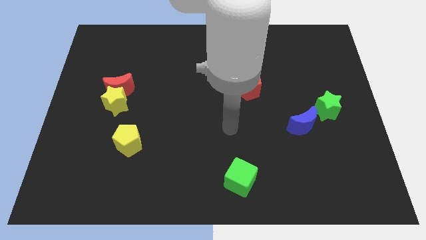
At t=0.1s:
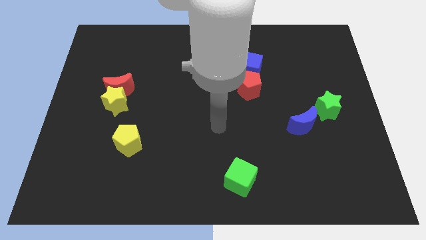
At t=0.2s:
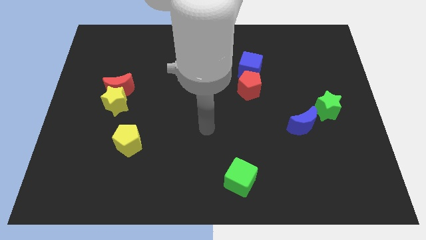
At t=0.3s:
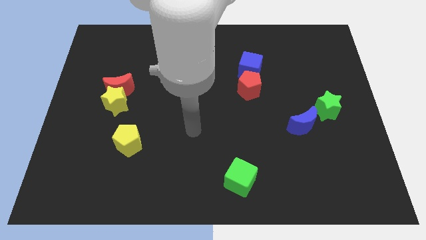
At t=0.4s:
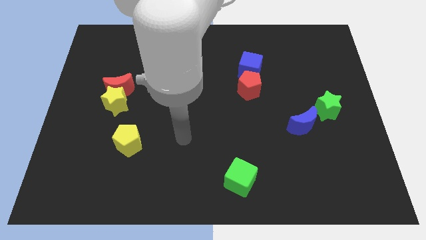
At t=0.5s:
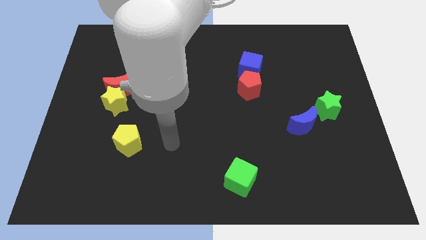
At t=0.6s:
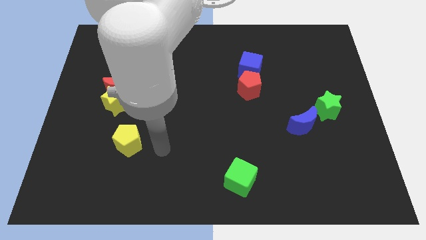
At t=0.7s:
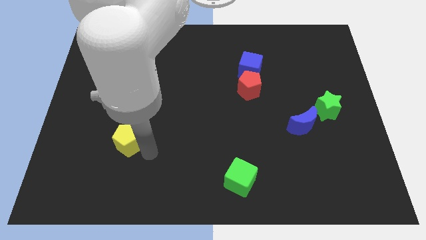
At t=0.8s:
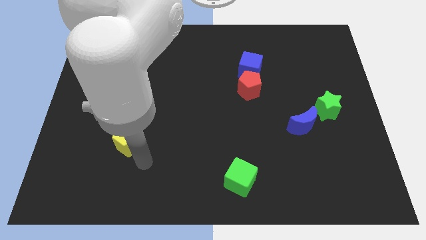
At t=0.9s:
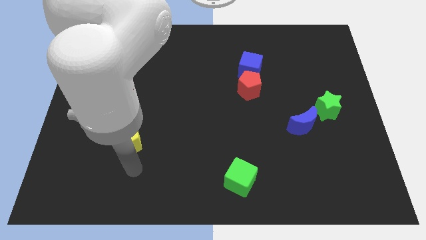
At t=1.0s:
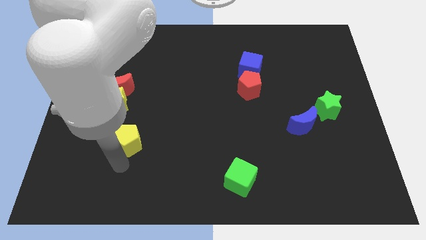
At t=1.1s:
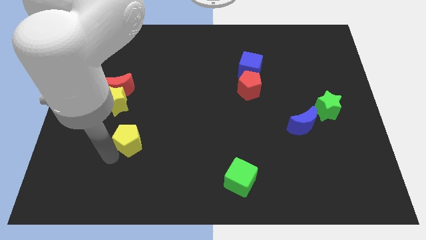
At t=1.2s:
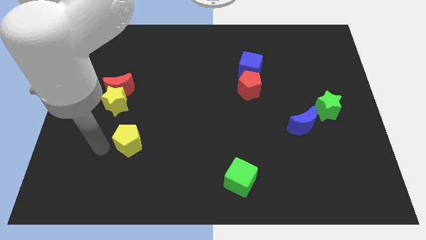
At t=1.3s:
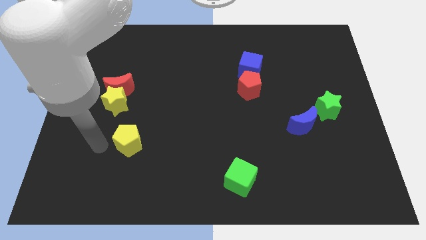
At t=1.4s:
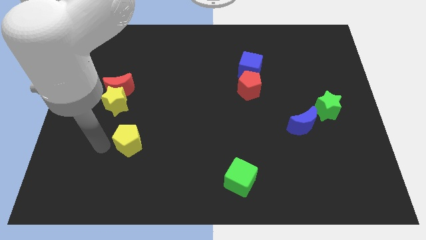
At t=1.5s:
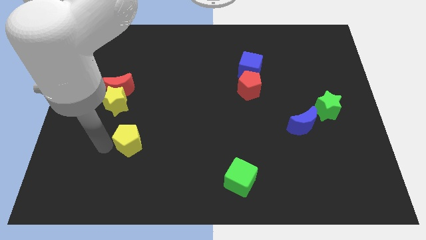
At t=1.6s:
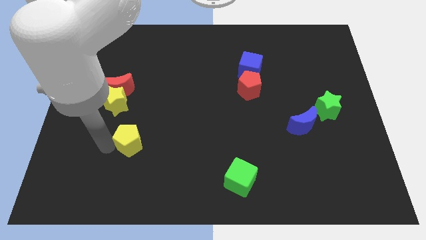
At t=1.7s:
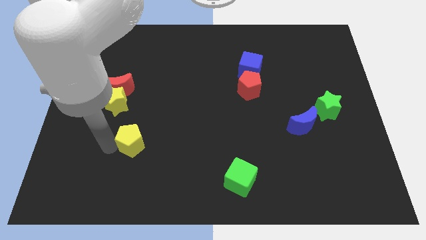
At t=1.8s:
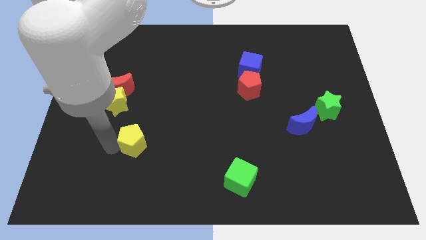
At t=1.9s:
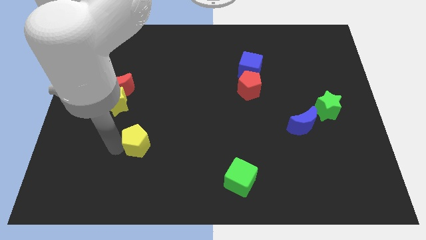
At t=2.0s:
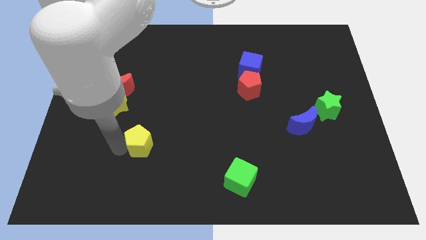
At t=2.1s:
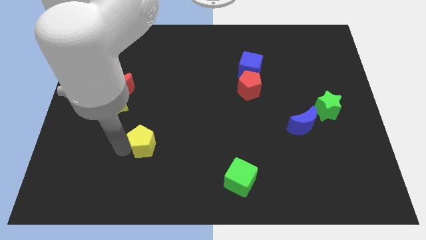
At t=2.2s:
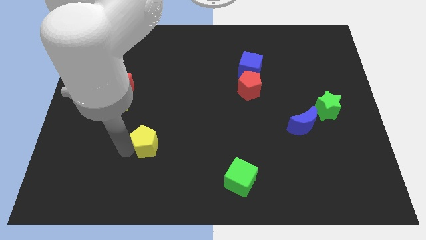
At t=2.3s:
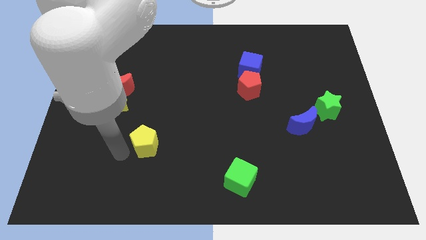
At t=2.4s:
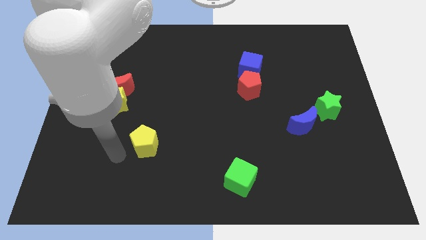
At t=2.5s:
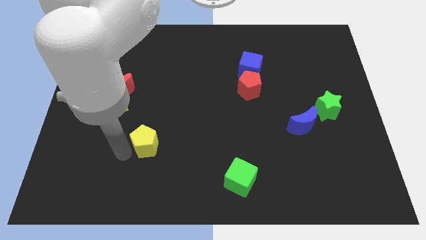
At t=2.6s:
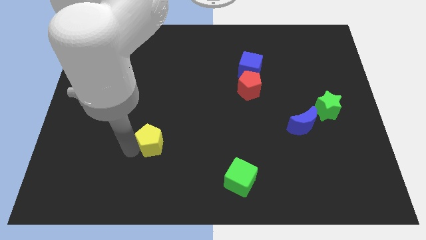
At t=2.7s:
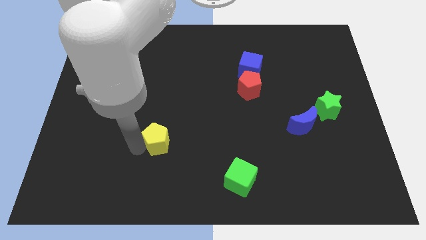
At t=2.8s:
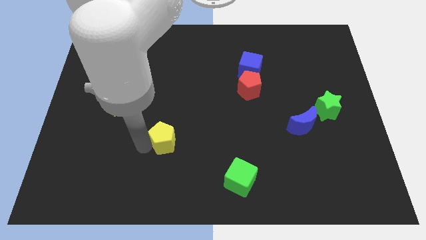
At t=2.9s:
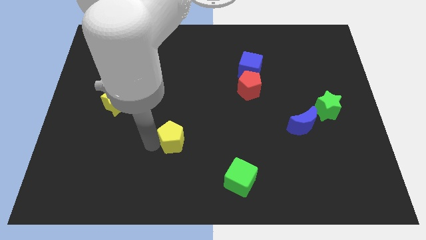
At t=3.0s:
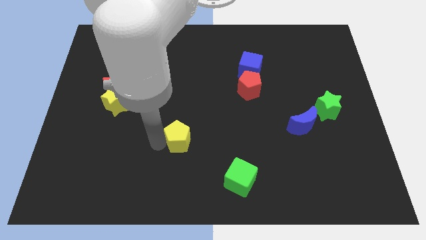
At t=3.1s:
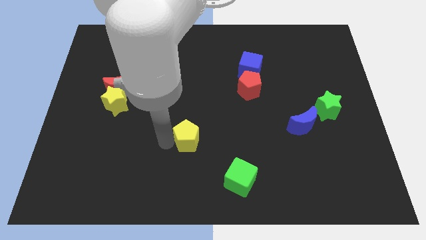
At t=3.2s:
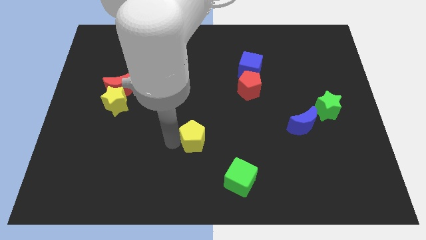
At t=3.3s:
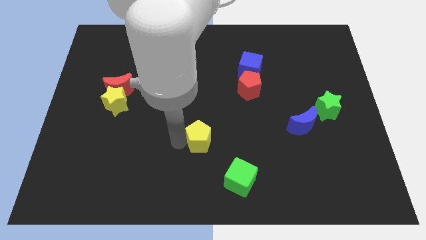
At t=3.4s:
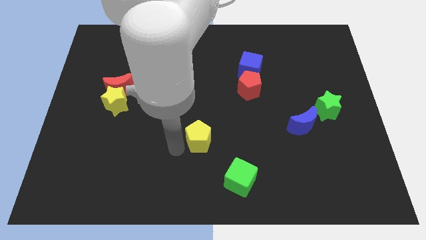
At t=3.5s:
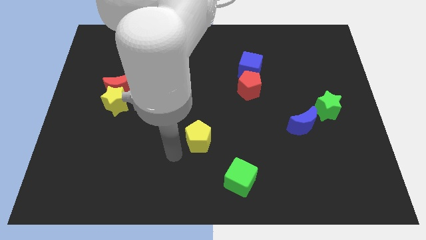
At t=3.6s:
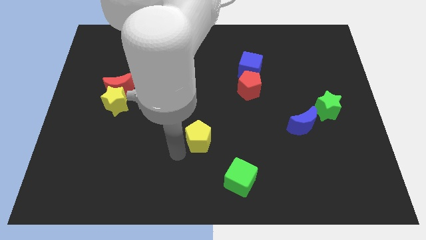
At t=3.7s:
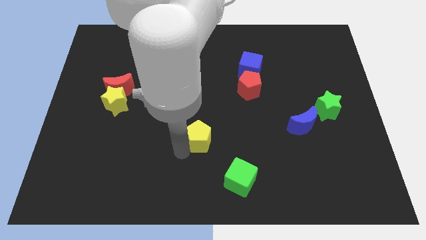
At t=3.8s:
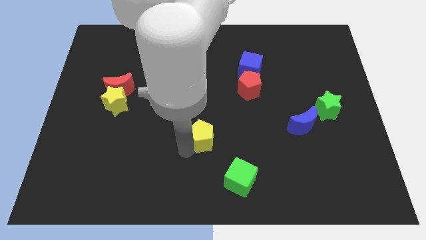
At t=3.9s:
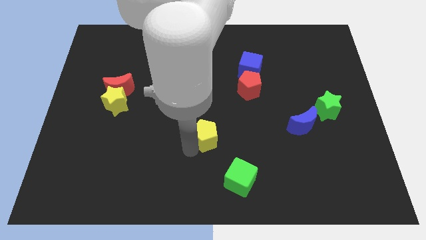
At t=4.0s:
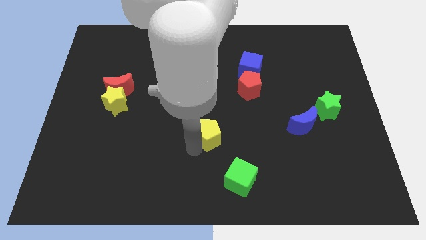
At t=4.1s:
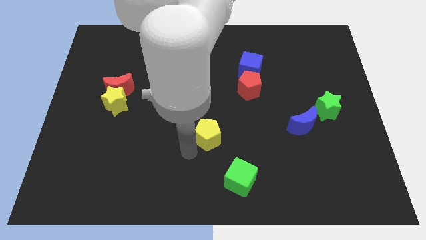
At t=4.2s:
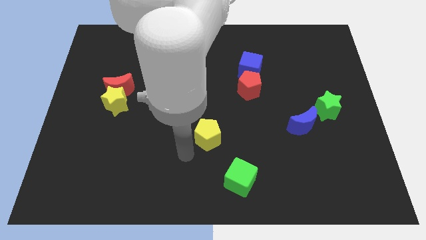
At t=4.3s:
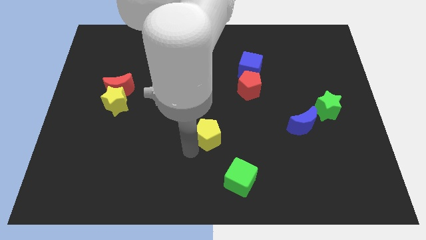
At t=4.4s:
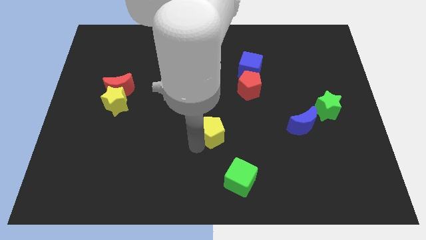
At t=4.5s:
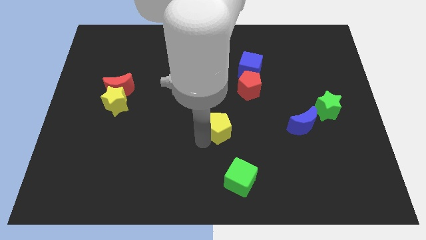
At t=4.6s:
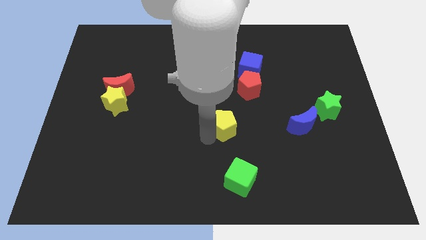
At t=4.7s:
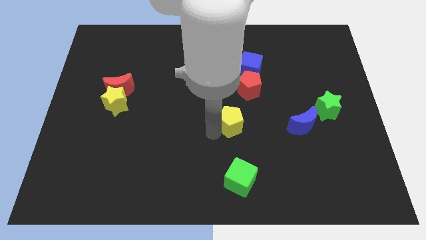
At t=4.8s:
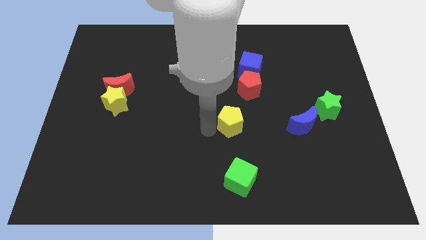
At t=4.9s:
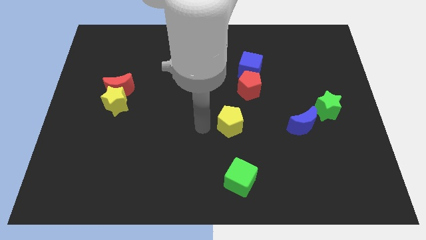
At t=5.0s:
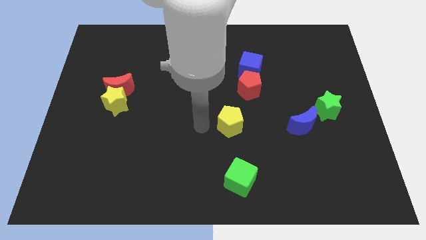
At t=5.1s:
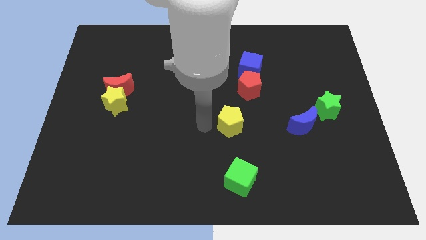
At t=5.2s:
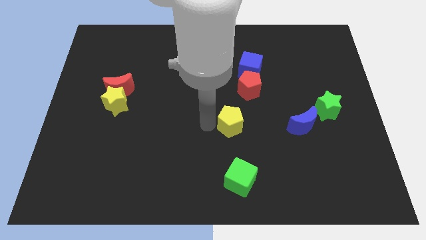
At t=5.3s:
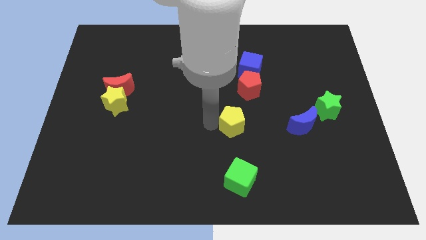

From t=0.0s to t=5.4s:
slide the yellow pentagon to the bottom of the red pentagon

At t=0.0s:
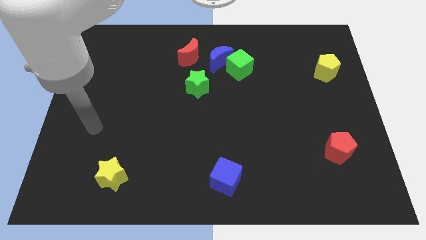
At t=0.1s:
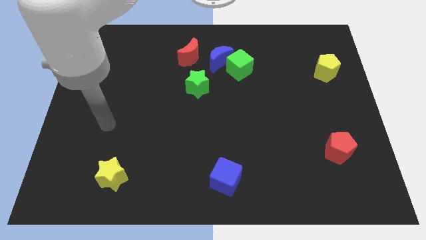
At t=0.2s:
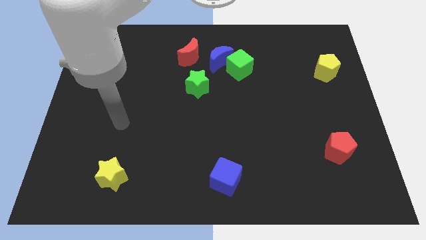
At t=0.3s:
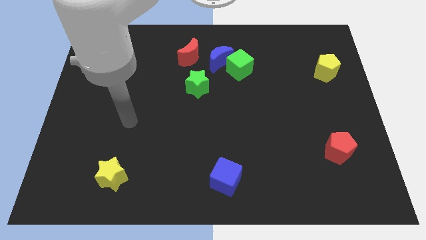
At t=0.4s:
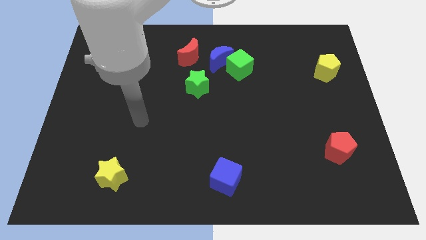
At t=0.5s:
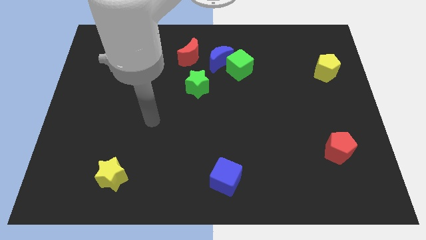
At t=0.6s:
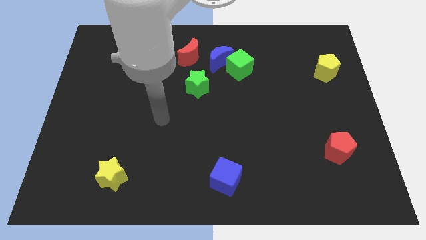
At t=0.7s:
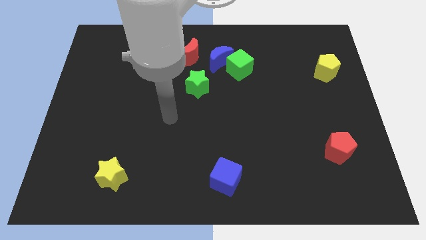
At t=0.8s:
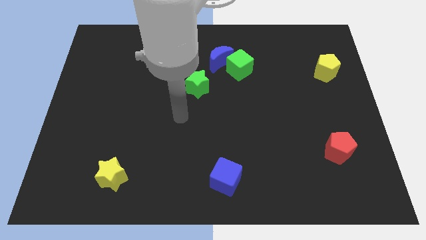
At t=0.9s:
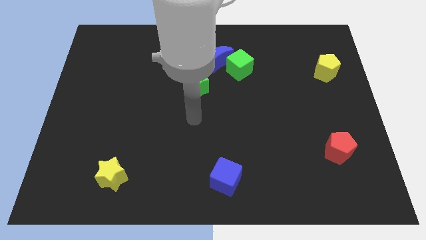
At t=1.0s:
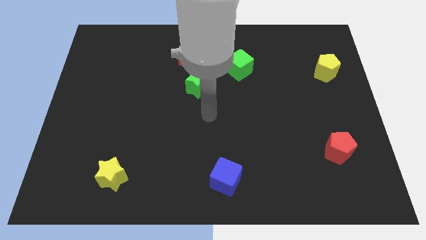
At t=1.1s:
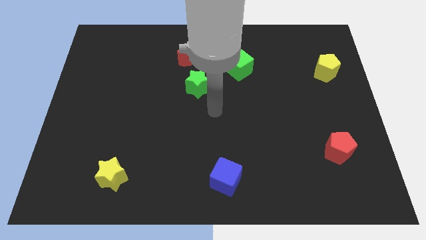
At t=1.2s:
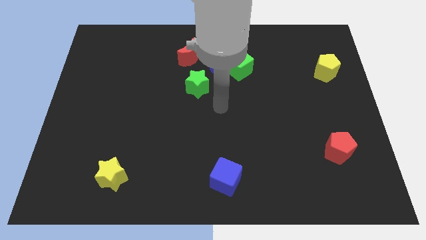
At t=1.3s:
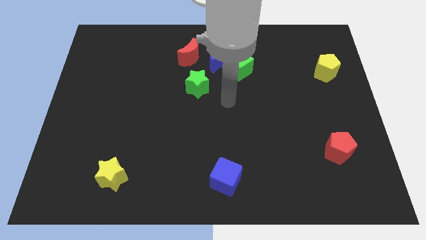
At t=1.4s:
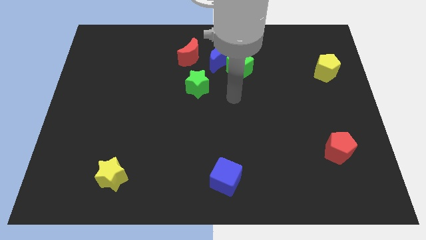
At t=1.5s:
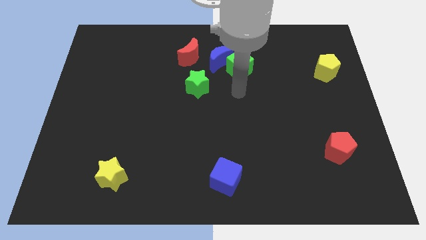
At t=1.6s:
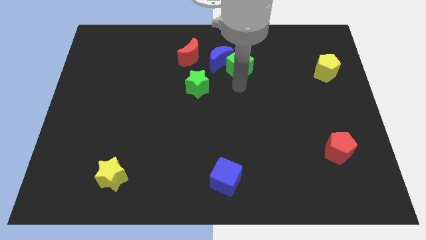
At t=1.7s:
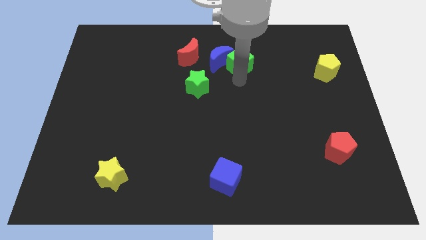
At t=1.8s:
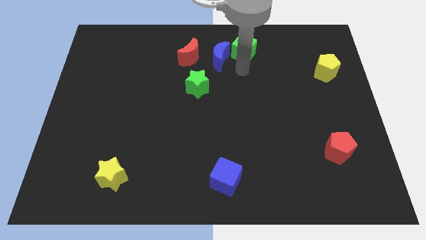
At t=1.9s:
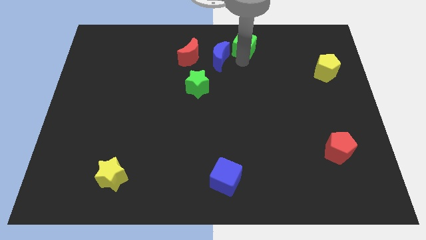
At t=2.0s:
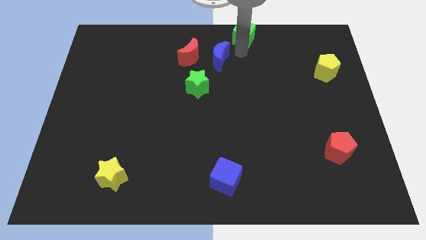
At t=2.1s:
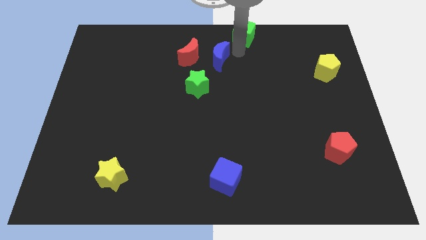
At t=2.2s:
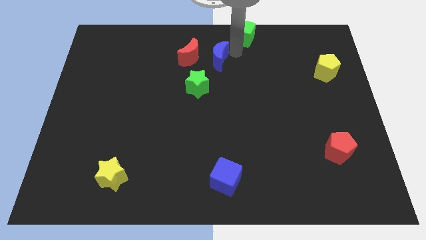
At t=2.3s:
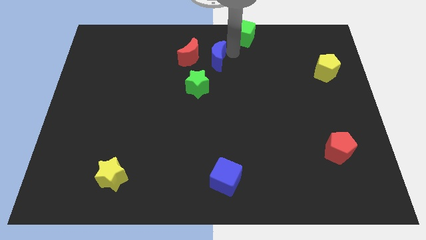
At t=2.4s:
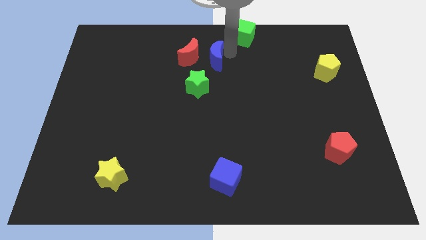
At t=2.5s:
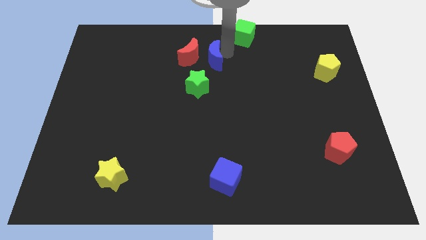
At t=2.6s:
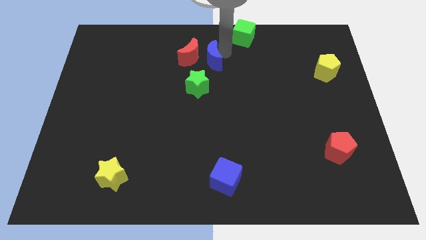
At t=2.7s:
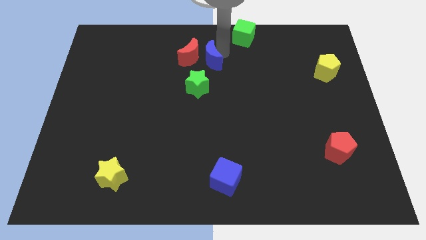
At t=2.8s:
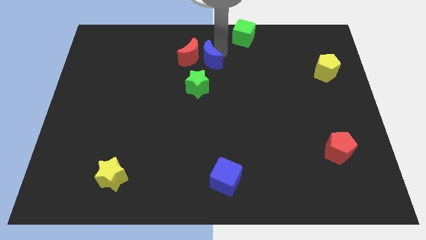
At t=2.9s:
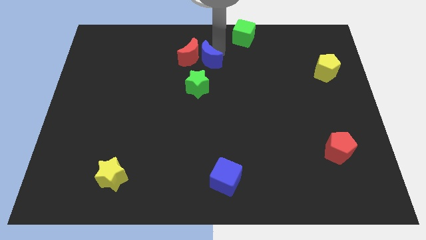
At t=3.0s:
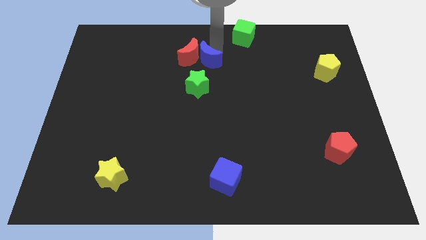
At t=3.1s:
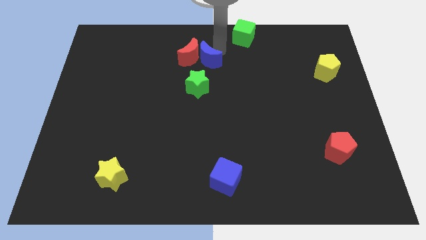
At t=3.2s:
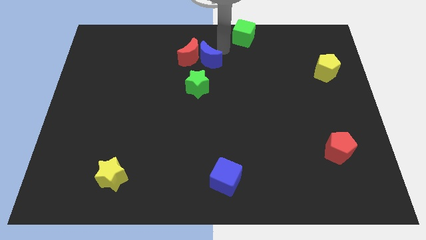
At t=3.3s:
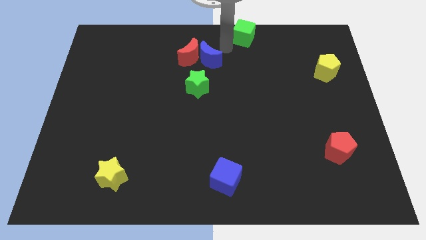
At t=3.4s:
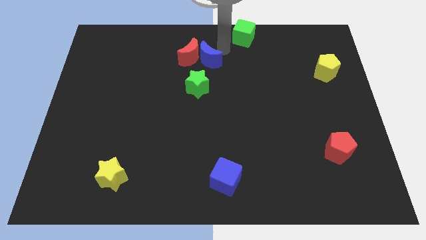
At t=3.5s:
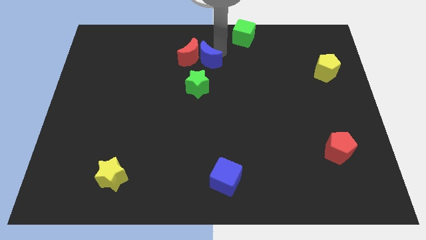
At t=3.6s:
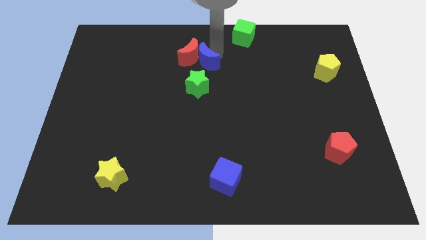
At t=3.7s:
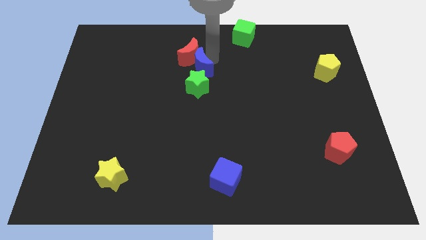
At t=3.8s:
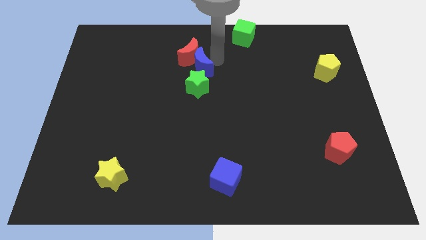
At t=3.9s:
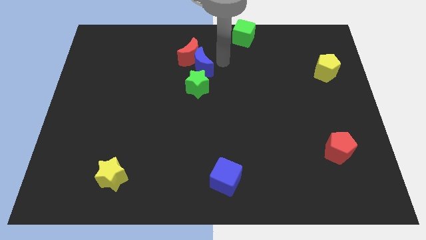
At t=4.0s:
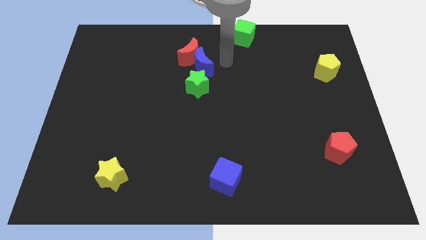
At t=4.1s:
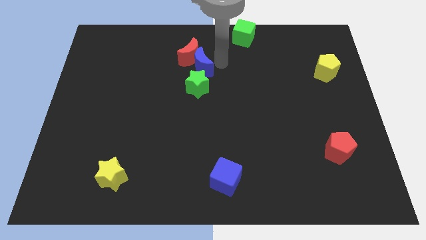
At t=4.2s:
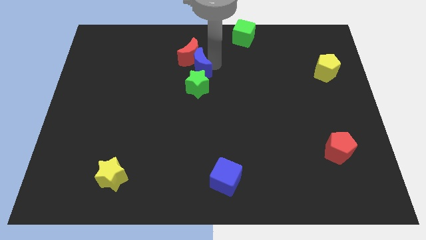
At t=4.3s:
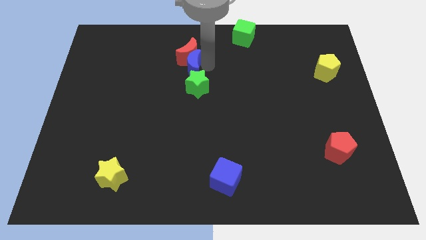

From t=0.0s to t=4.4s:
put the blue moon to the top left side of the green star
